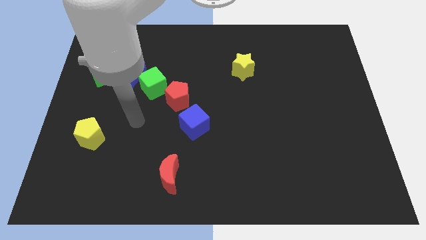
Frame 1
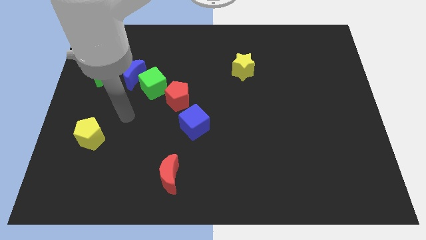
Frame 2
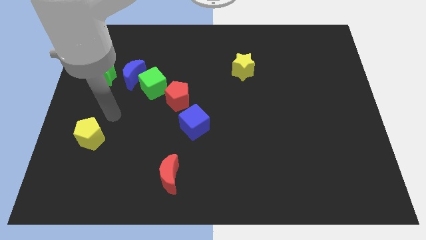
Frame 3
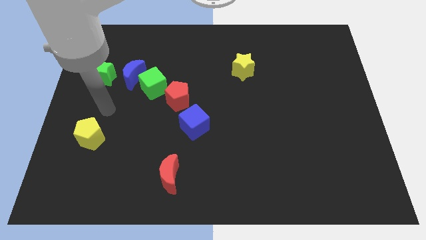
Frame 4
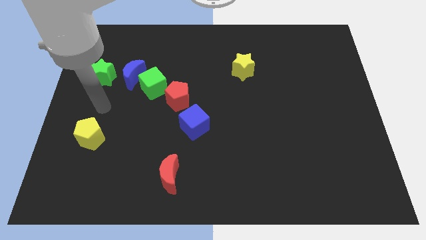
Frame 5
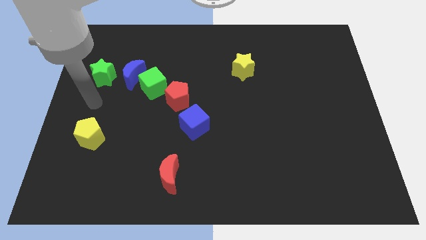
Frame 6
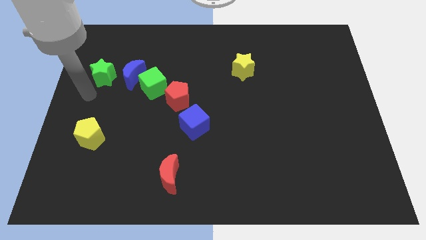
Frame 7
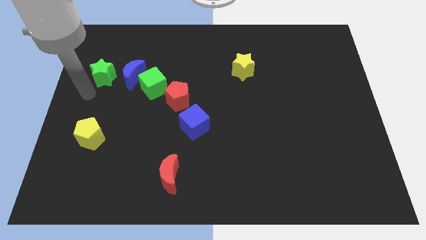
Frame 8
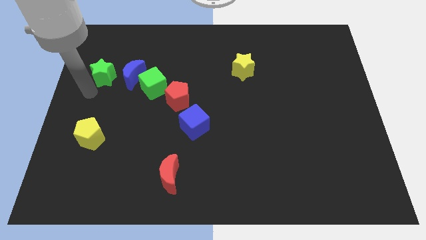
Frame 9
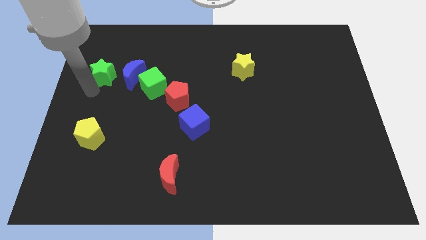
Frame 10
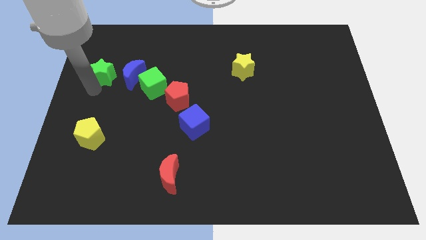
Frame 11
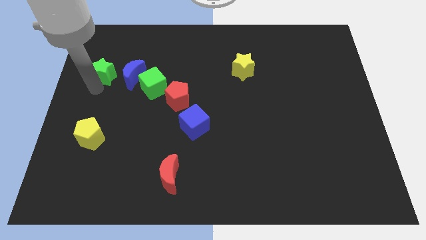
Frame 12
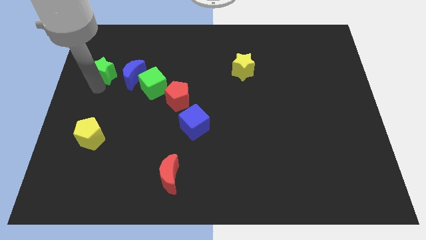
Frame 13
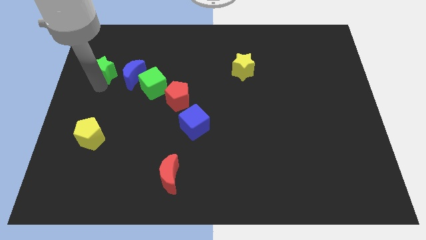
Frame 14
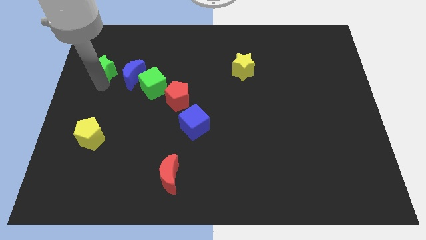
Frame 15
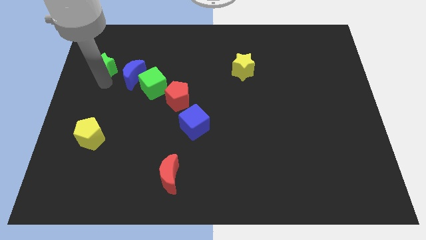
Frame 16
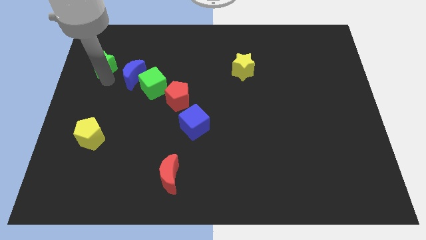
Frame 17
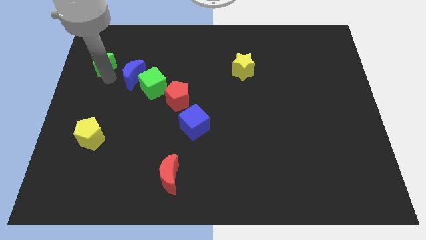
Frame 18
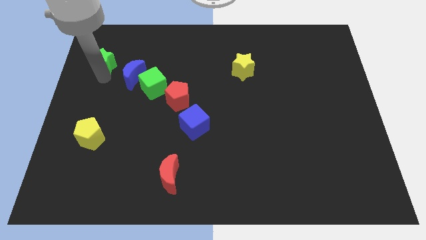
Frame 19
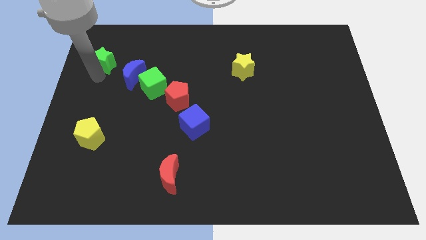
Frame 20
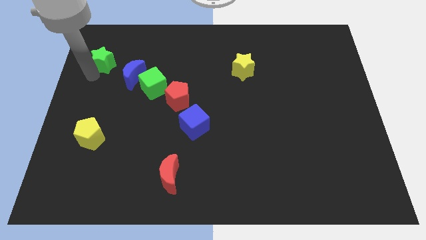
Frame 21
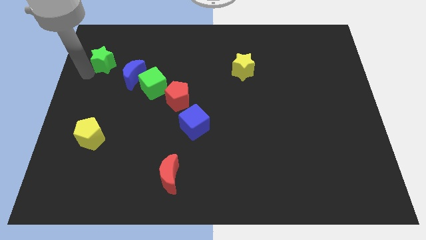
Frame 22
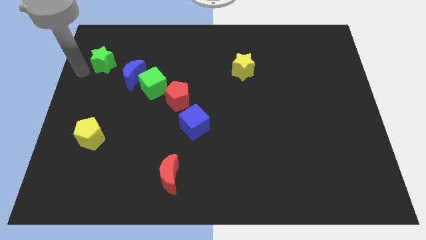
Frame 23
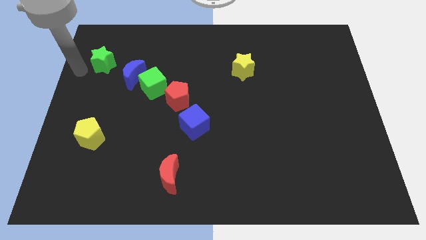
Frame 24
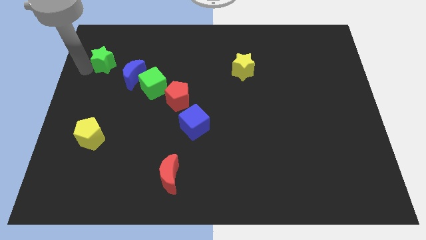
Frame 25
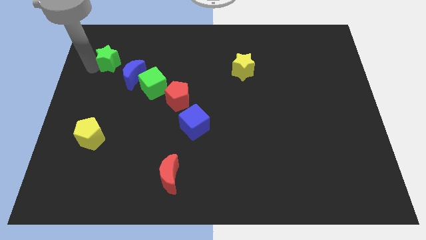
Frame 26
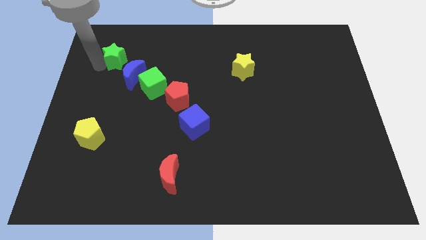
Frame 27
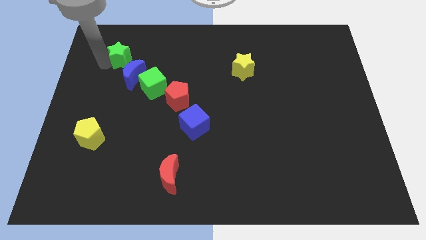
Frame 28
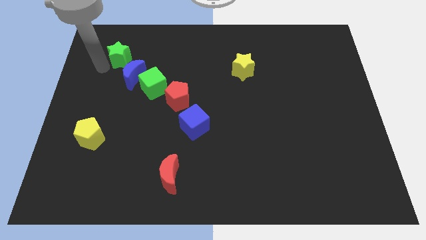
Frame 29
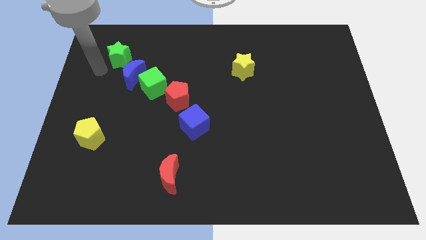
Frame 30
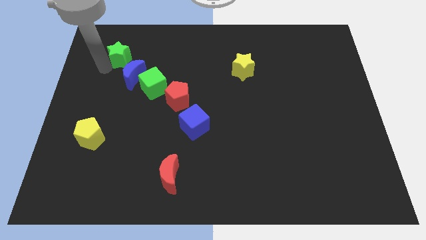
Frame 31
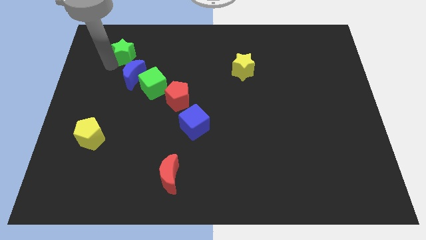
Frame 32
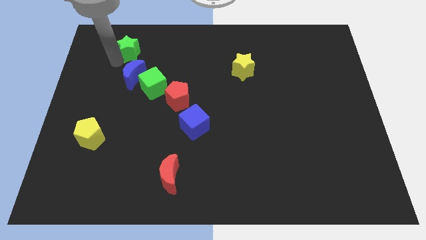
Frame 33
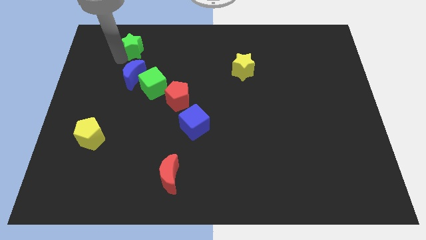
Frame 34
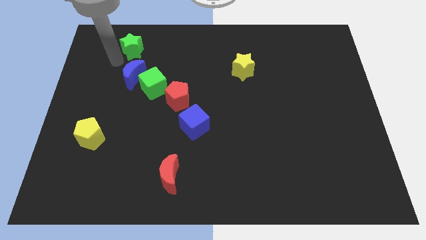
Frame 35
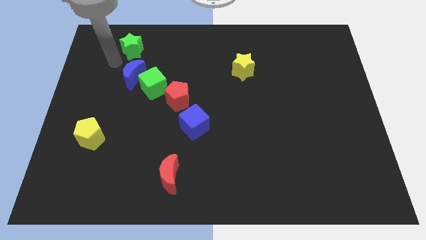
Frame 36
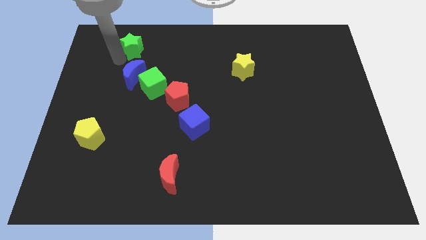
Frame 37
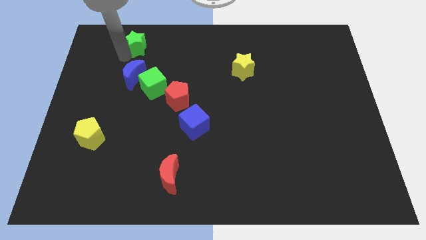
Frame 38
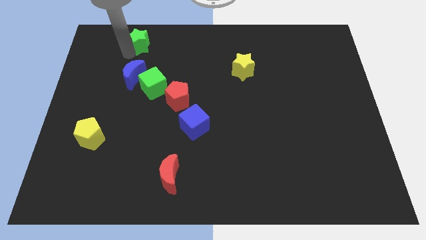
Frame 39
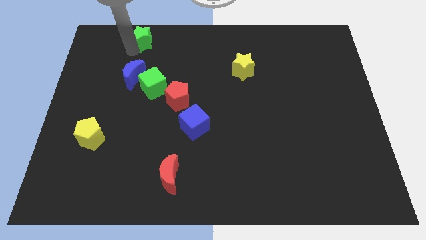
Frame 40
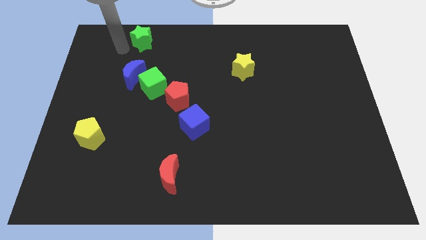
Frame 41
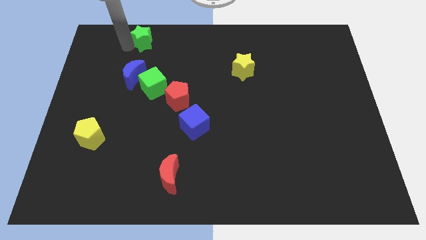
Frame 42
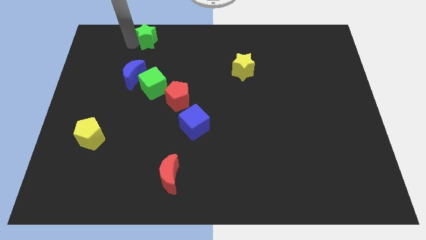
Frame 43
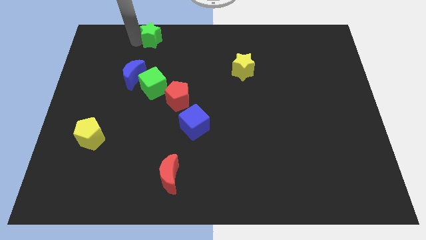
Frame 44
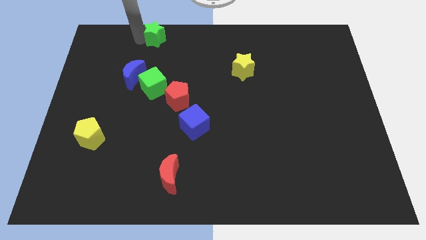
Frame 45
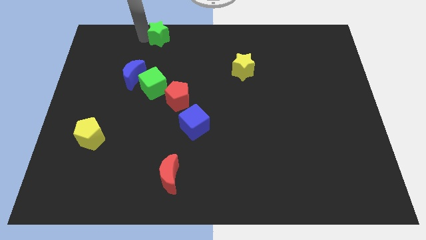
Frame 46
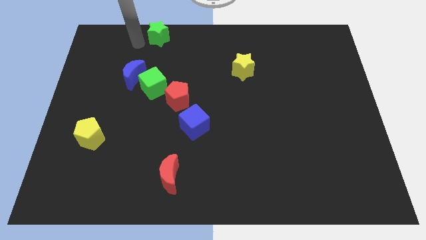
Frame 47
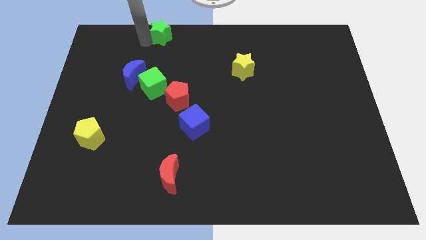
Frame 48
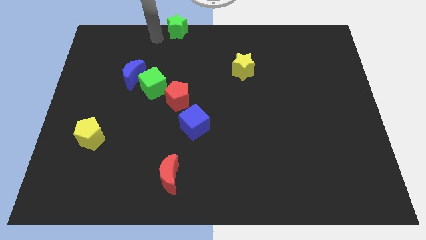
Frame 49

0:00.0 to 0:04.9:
move the green star to the top side

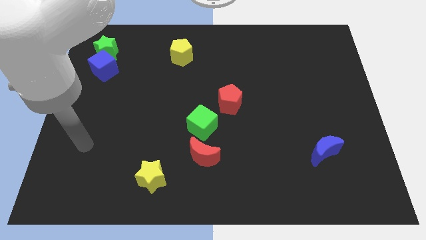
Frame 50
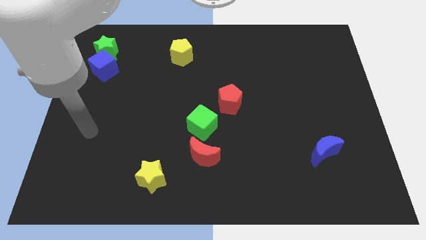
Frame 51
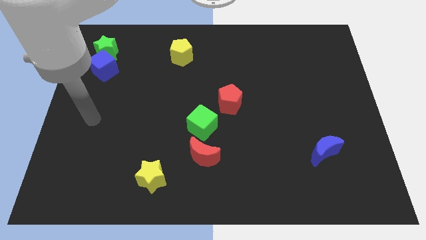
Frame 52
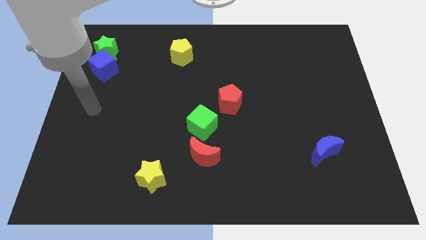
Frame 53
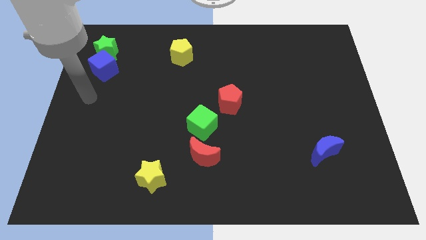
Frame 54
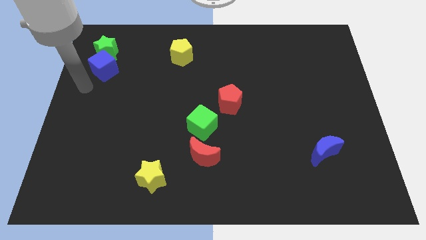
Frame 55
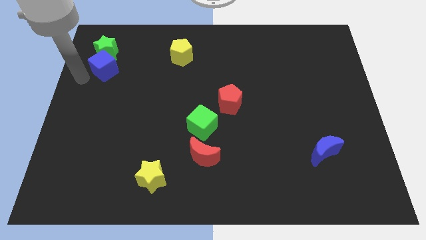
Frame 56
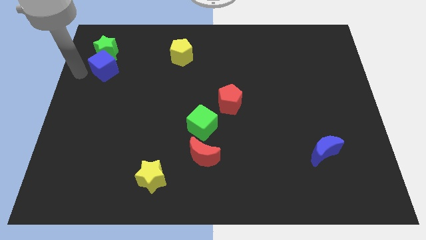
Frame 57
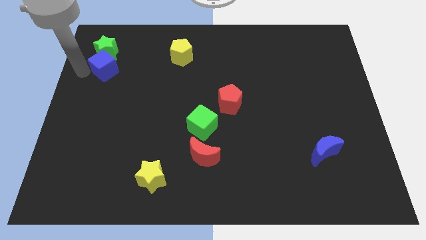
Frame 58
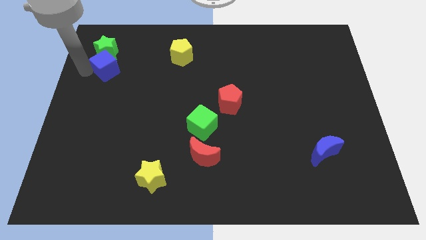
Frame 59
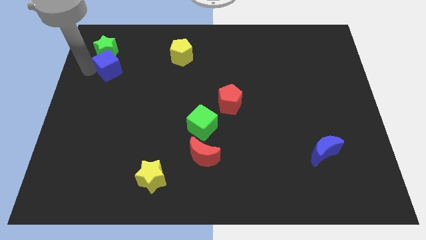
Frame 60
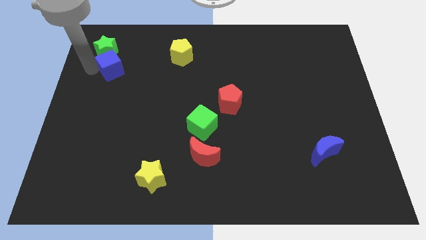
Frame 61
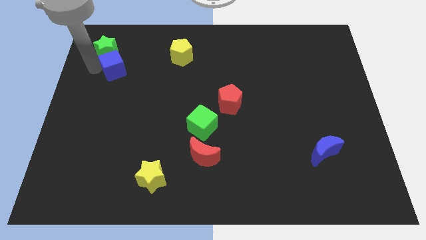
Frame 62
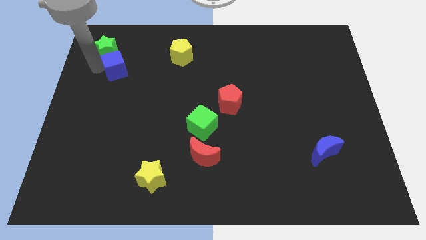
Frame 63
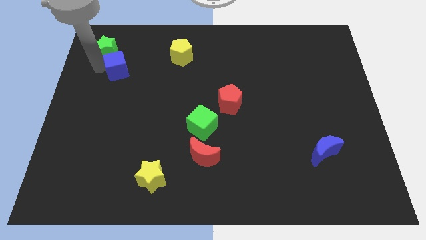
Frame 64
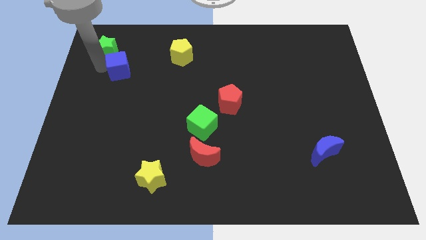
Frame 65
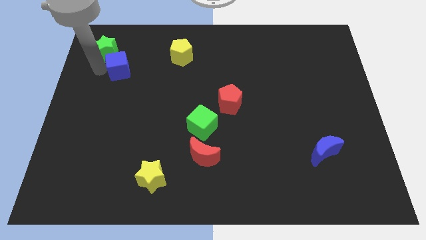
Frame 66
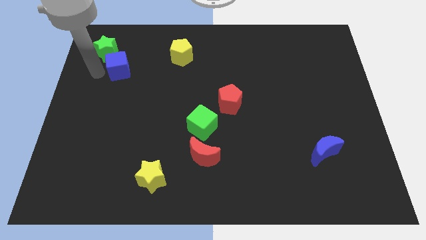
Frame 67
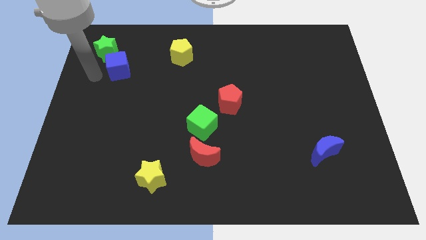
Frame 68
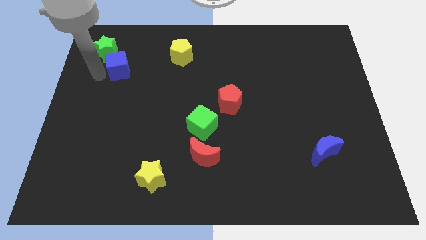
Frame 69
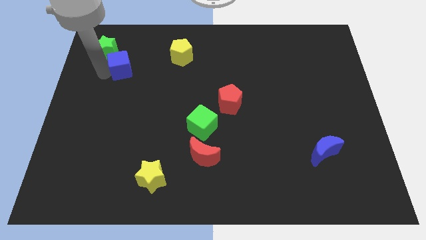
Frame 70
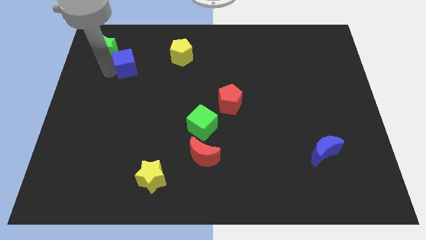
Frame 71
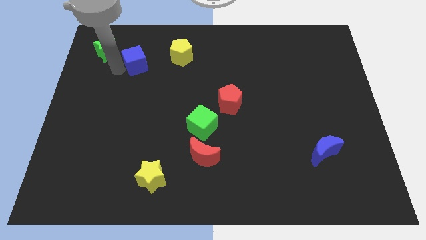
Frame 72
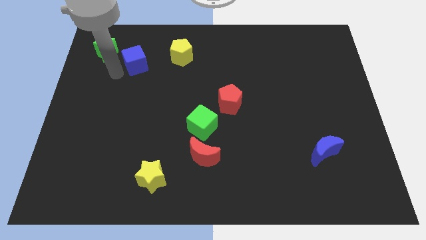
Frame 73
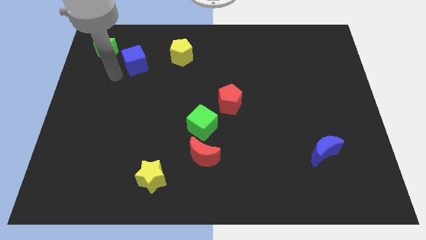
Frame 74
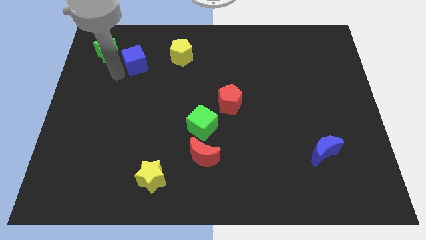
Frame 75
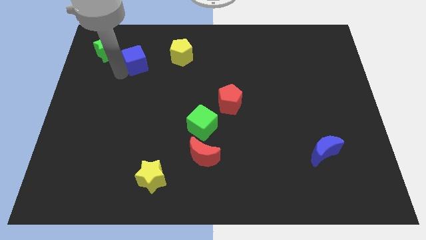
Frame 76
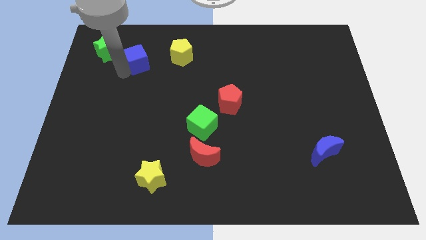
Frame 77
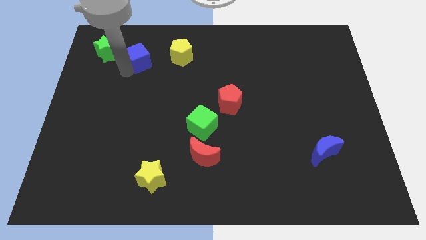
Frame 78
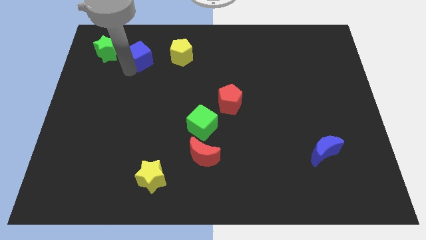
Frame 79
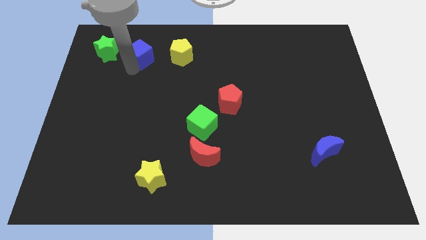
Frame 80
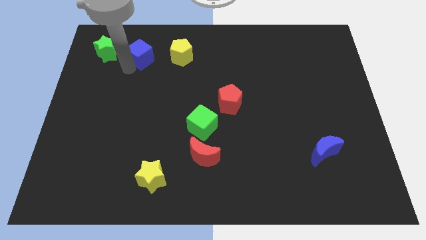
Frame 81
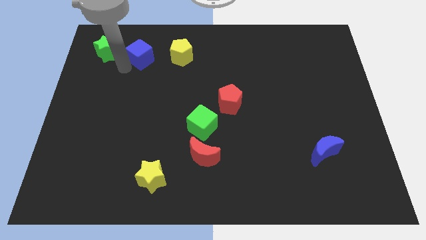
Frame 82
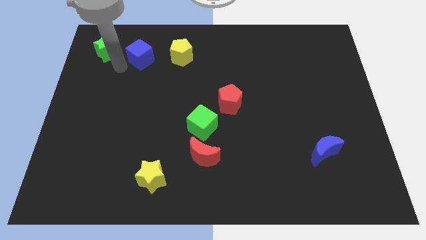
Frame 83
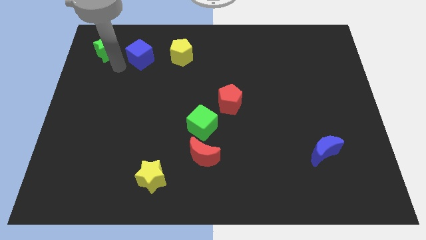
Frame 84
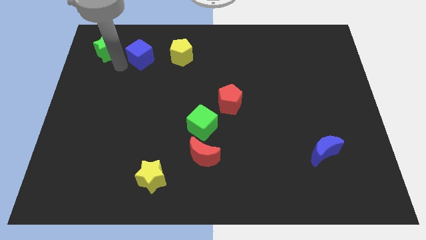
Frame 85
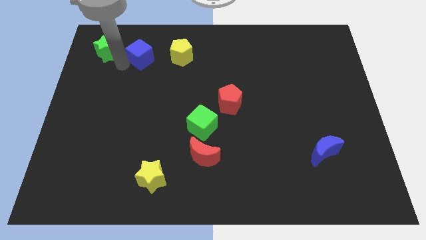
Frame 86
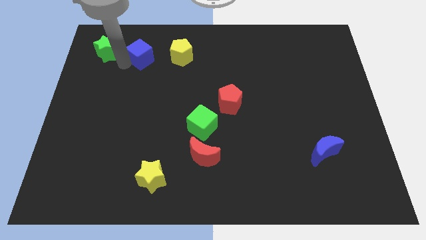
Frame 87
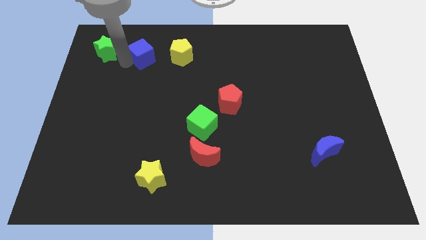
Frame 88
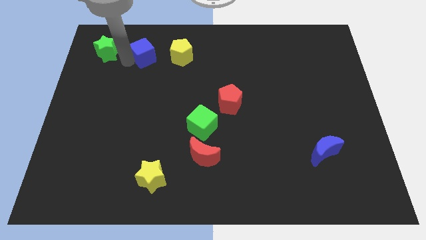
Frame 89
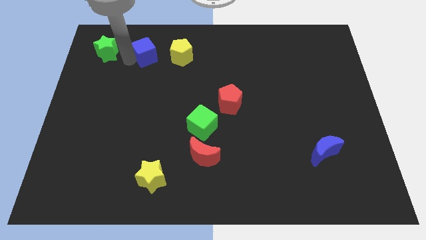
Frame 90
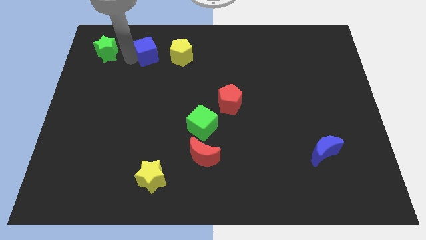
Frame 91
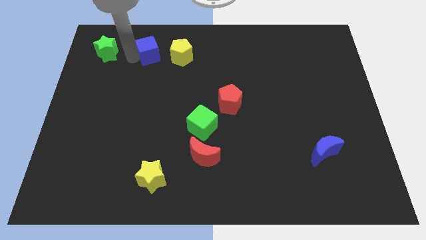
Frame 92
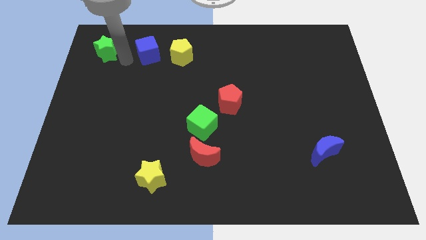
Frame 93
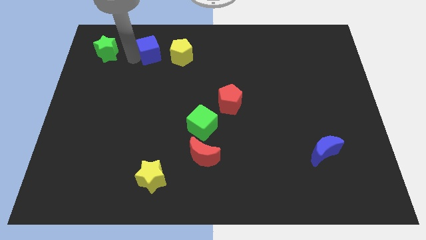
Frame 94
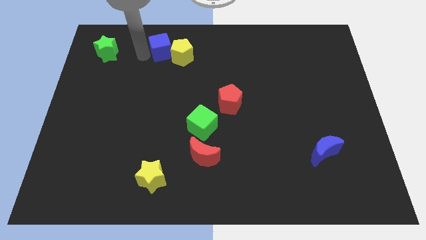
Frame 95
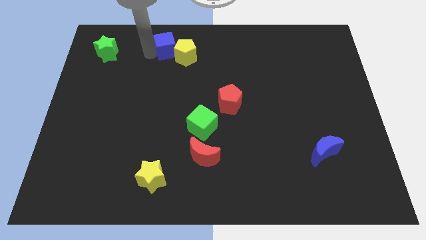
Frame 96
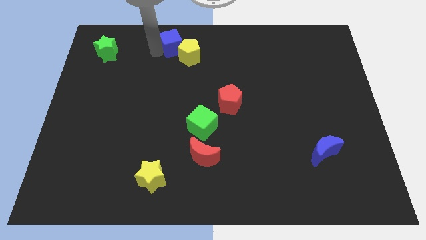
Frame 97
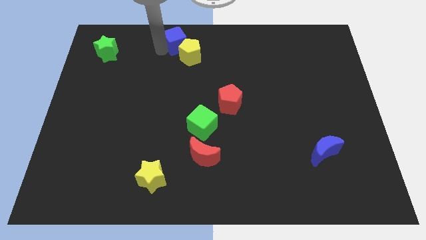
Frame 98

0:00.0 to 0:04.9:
push the blue cube to the top side
